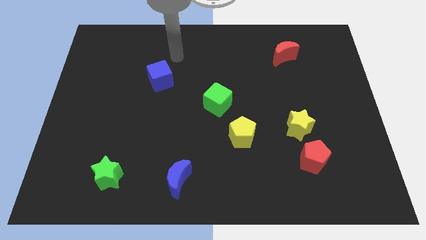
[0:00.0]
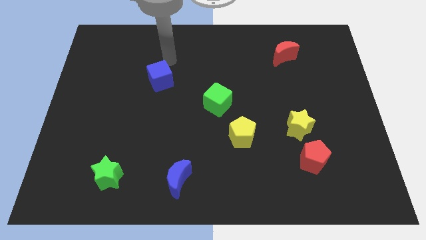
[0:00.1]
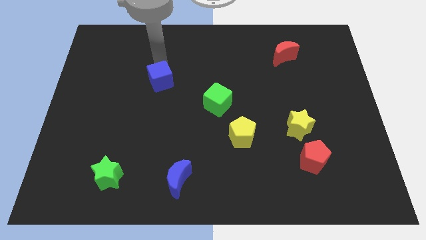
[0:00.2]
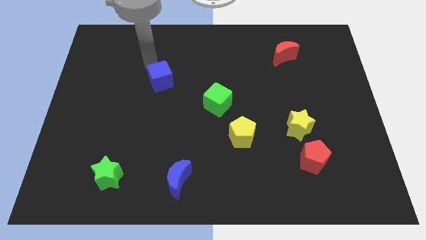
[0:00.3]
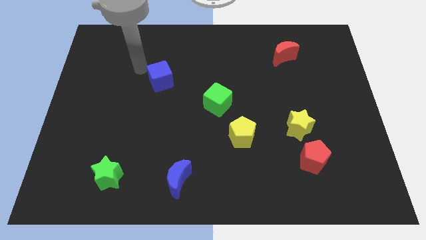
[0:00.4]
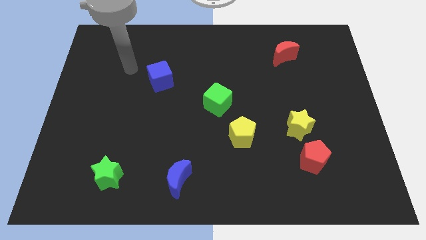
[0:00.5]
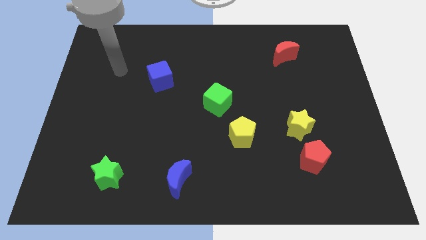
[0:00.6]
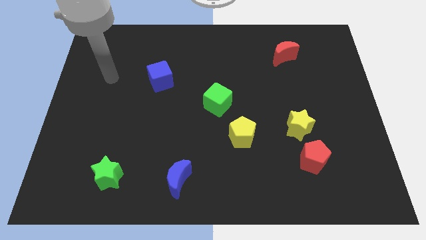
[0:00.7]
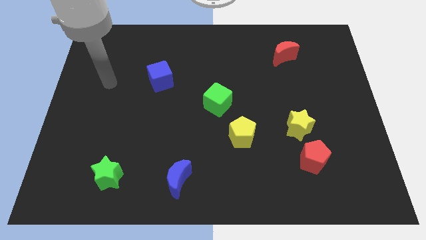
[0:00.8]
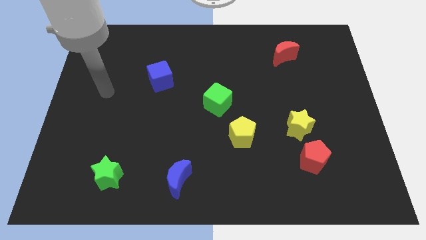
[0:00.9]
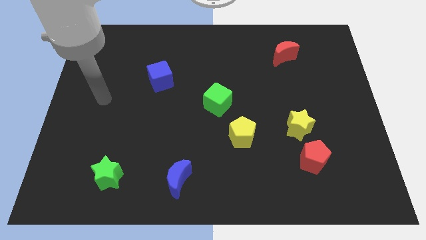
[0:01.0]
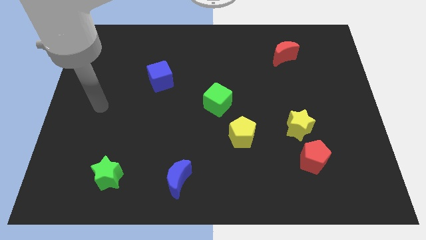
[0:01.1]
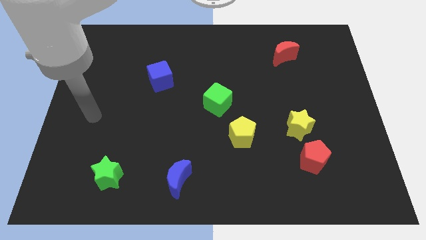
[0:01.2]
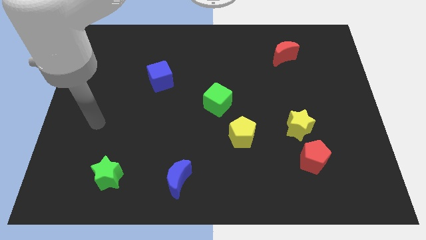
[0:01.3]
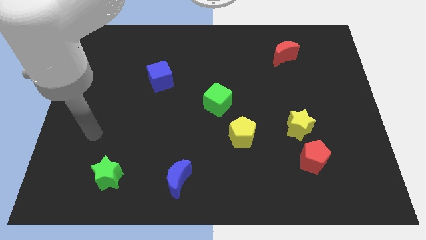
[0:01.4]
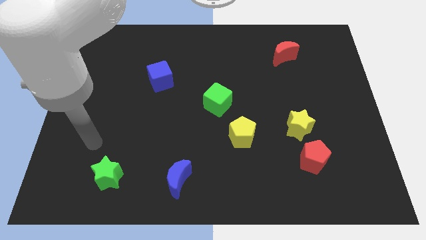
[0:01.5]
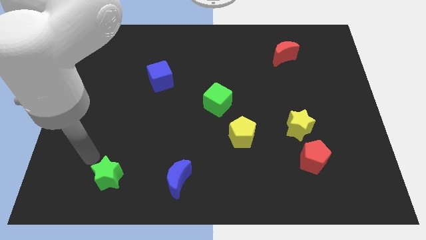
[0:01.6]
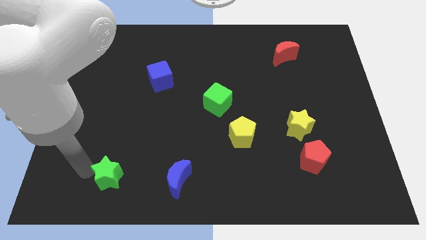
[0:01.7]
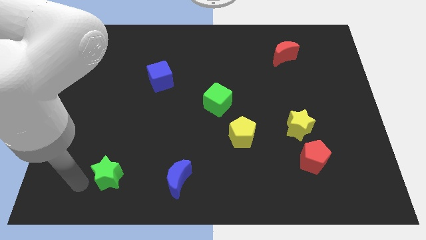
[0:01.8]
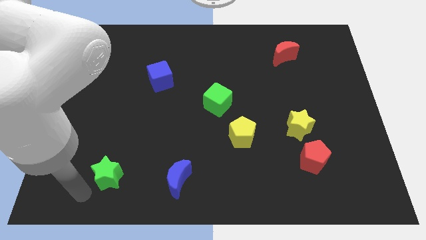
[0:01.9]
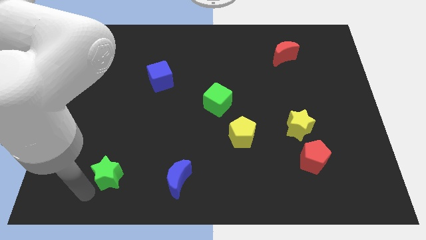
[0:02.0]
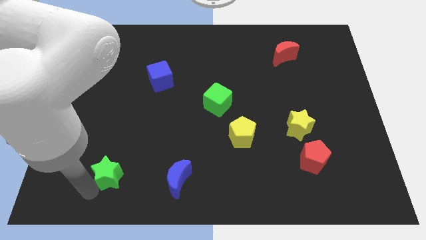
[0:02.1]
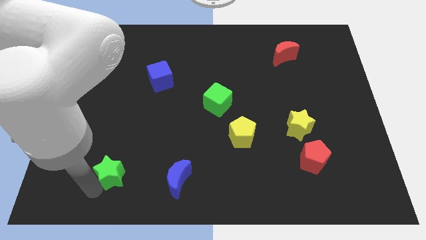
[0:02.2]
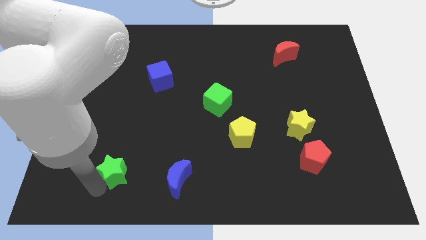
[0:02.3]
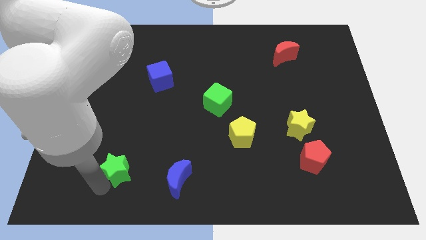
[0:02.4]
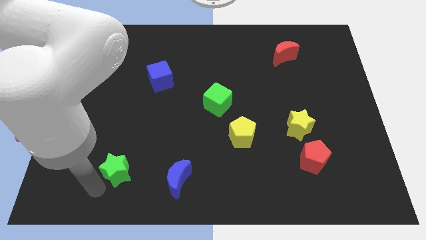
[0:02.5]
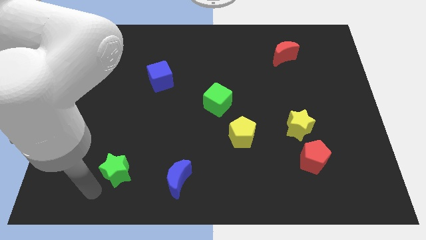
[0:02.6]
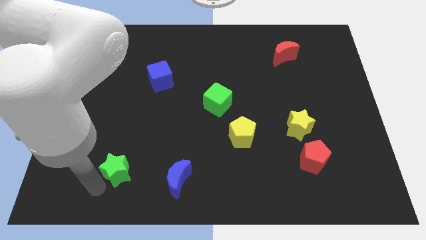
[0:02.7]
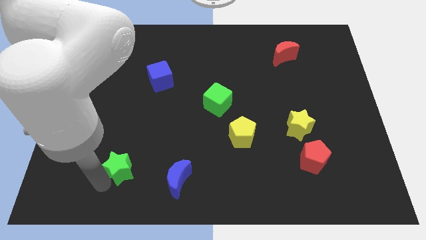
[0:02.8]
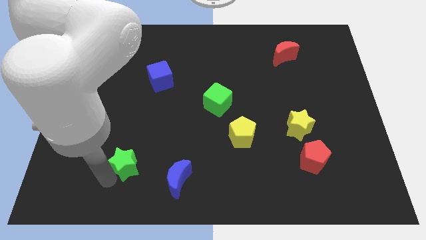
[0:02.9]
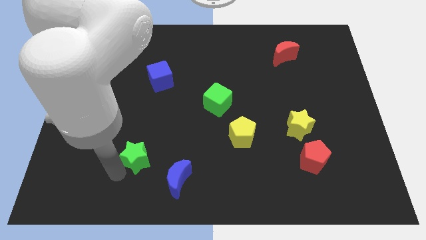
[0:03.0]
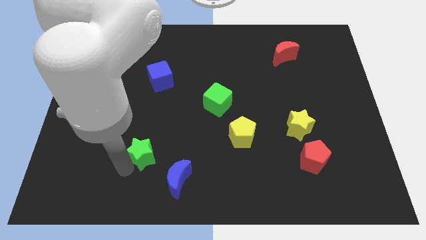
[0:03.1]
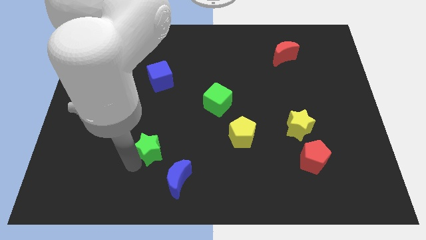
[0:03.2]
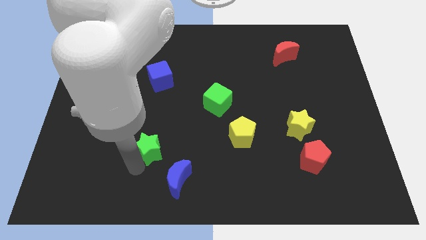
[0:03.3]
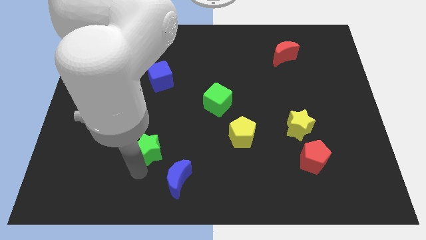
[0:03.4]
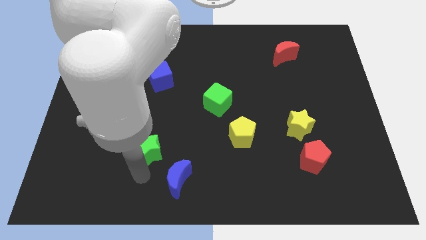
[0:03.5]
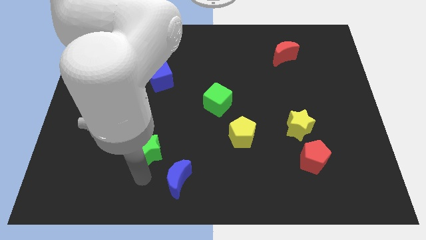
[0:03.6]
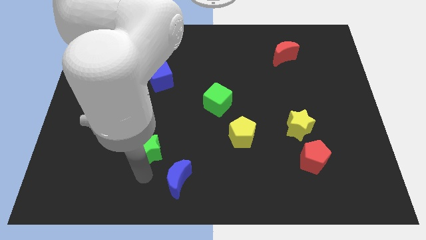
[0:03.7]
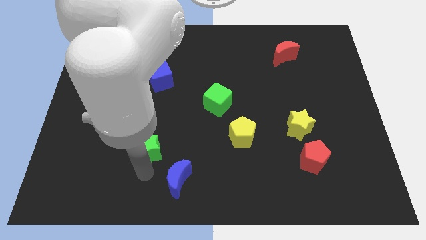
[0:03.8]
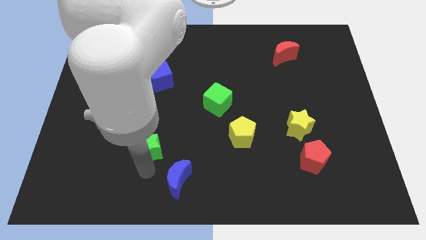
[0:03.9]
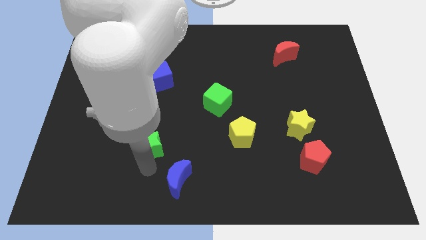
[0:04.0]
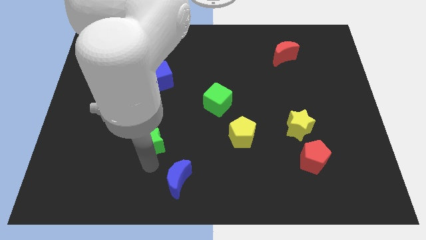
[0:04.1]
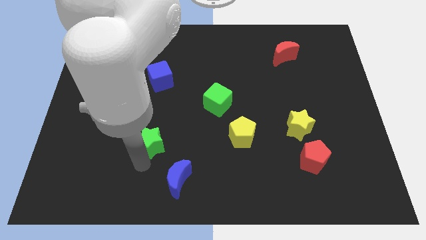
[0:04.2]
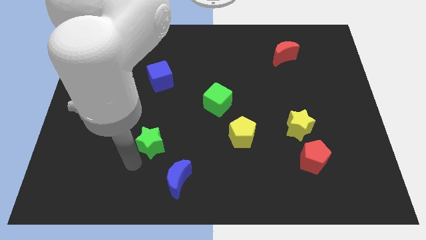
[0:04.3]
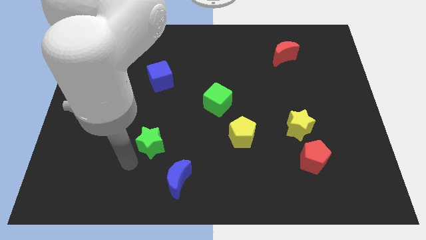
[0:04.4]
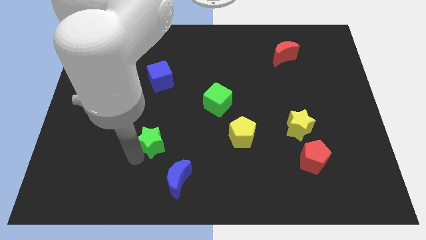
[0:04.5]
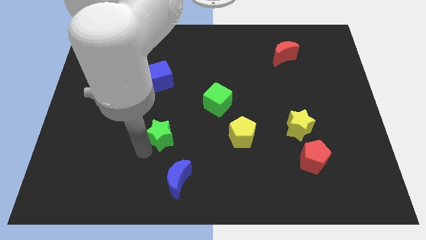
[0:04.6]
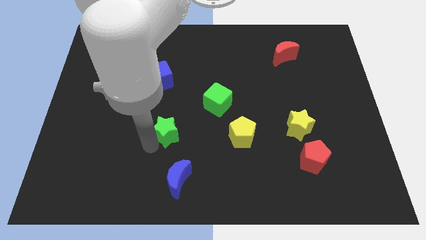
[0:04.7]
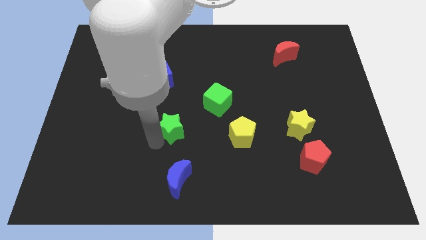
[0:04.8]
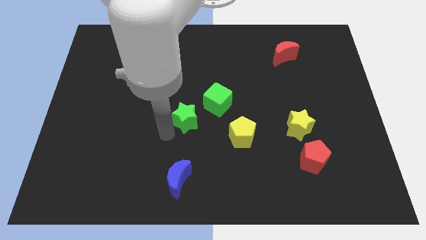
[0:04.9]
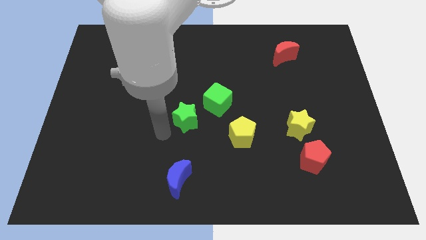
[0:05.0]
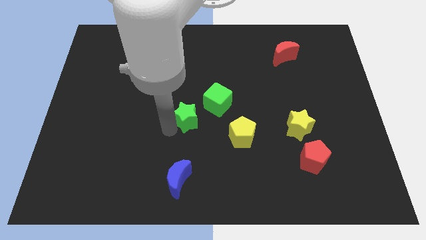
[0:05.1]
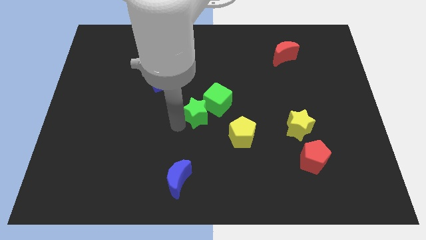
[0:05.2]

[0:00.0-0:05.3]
push the green star close to the green cube

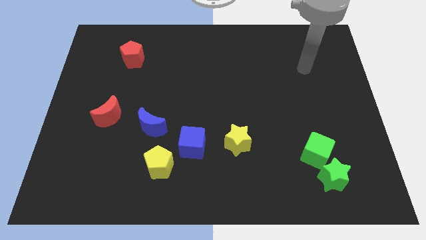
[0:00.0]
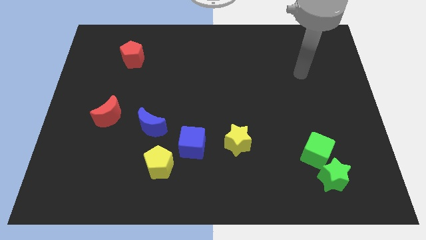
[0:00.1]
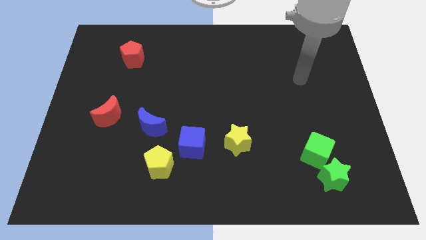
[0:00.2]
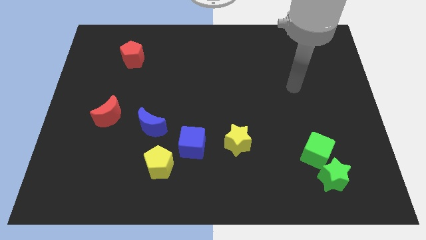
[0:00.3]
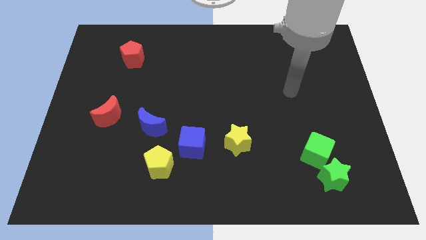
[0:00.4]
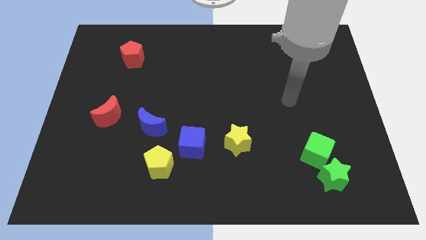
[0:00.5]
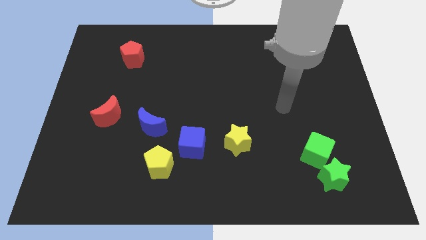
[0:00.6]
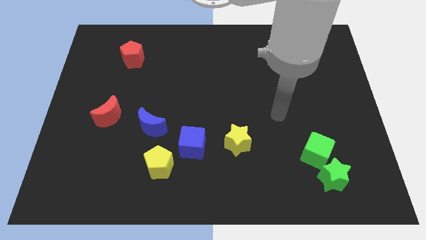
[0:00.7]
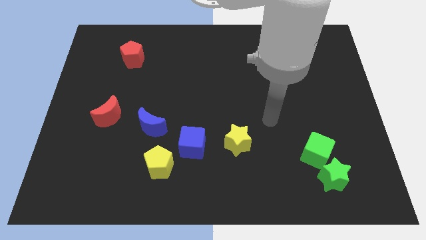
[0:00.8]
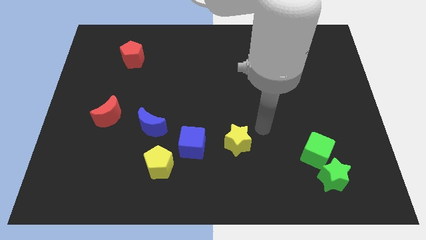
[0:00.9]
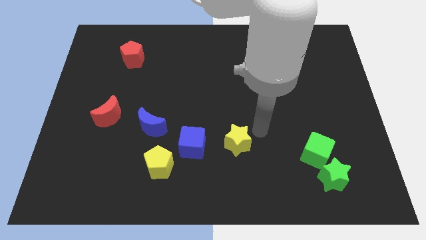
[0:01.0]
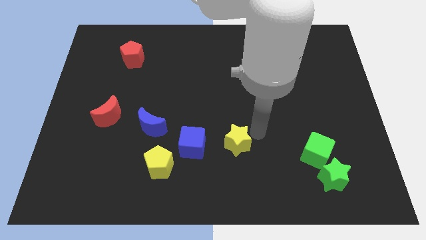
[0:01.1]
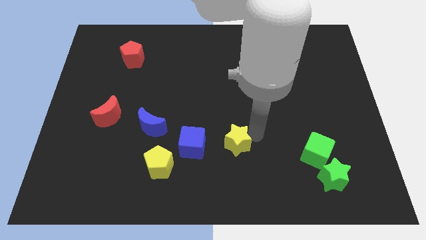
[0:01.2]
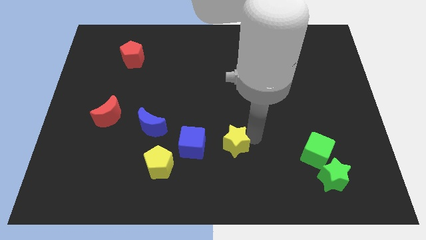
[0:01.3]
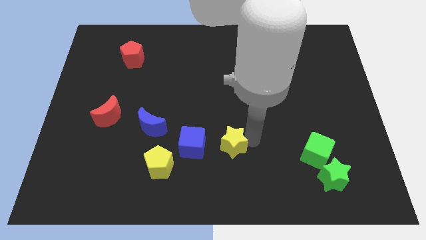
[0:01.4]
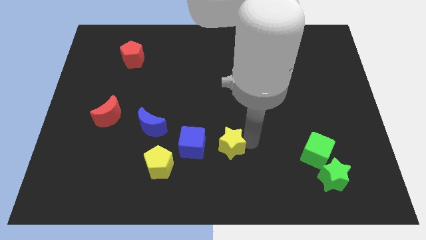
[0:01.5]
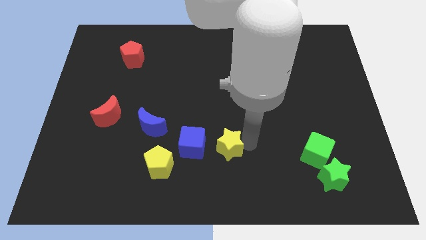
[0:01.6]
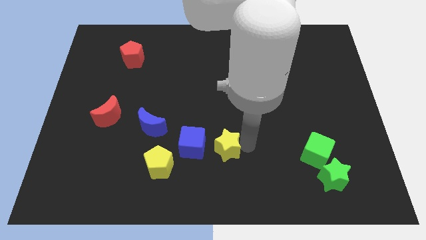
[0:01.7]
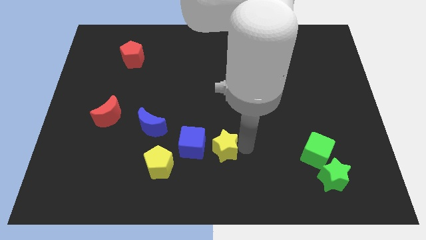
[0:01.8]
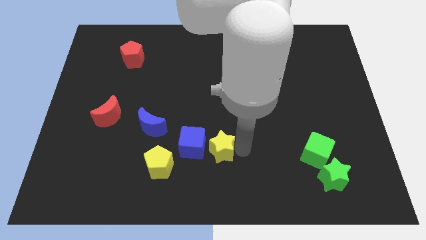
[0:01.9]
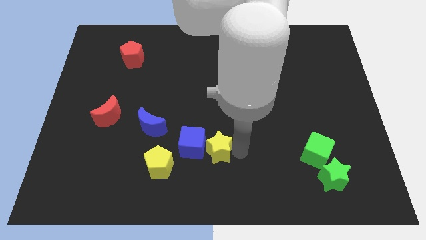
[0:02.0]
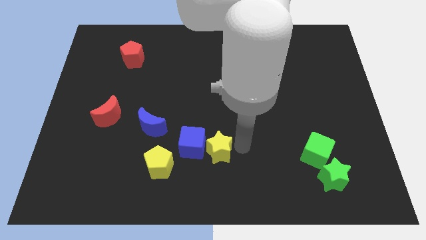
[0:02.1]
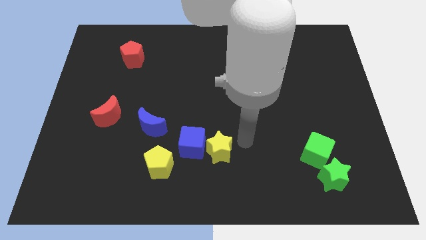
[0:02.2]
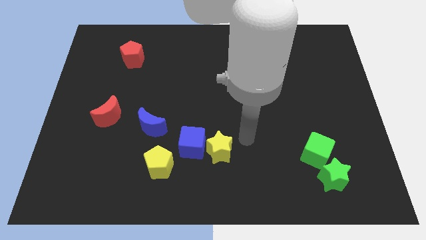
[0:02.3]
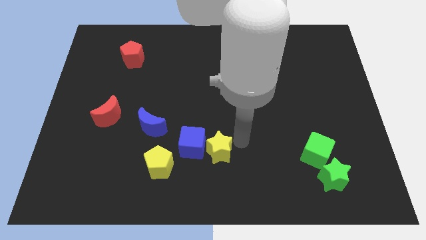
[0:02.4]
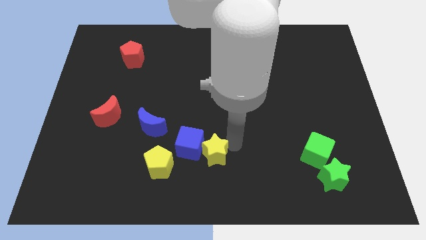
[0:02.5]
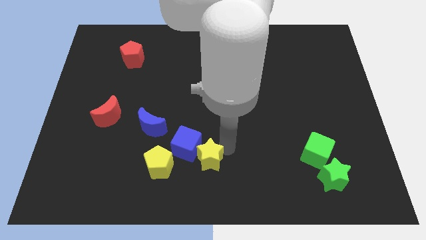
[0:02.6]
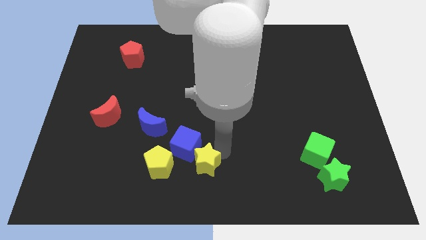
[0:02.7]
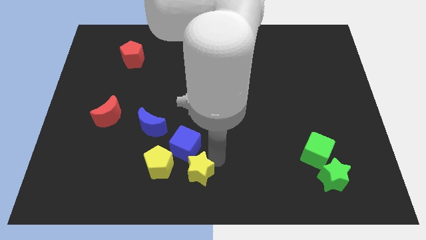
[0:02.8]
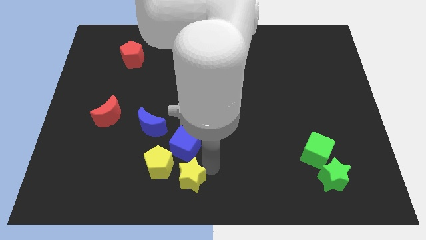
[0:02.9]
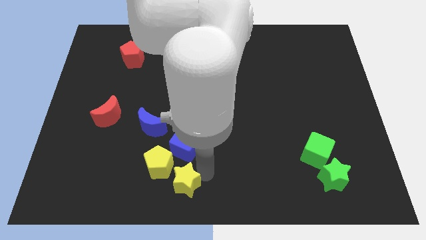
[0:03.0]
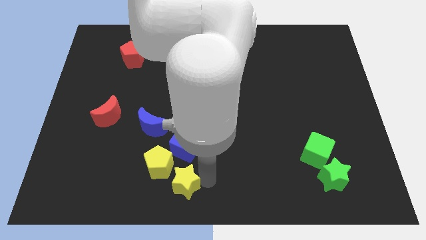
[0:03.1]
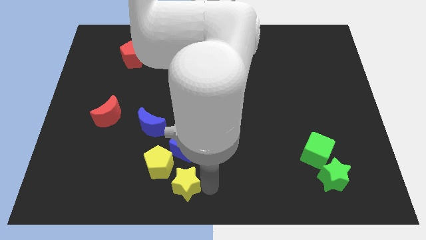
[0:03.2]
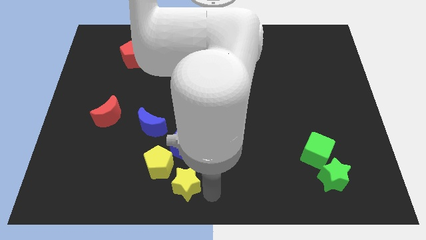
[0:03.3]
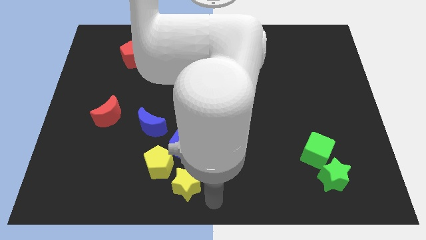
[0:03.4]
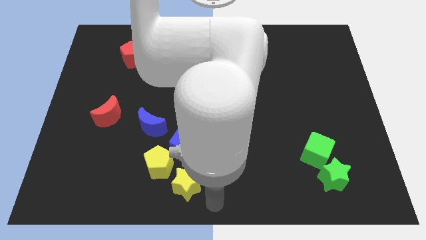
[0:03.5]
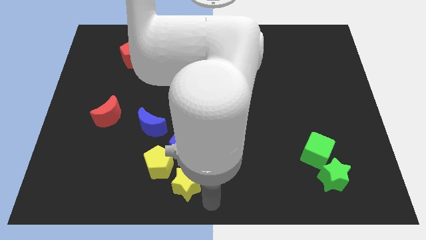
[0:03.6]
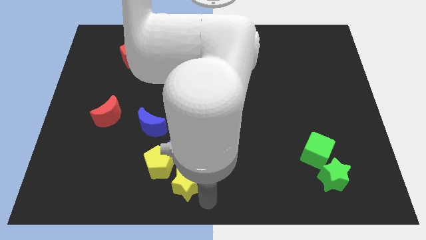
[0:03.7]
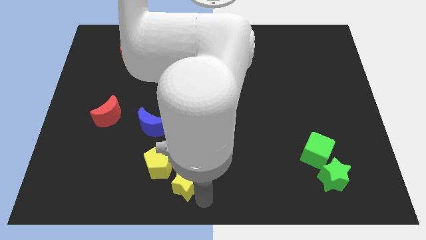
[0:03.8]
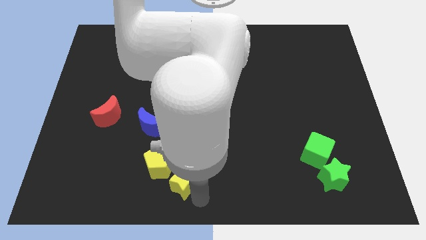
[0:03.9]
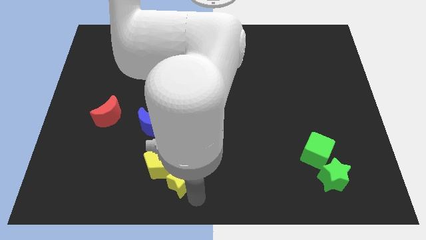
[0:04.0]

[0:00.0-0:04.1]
slide the yellow star to the yellow pentagon
